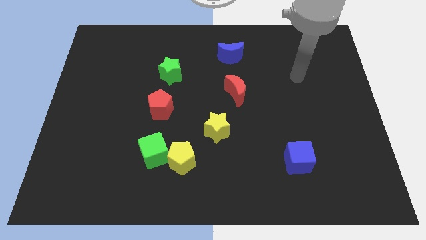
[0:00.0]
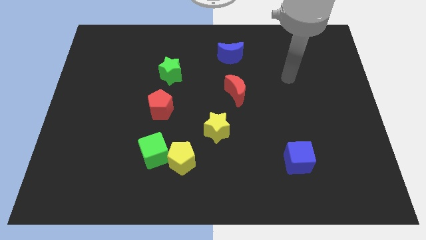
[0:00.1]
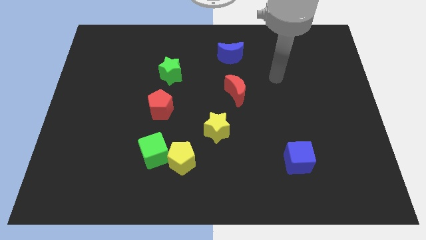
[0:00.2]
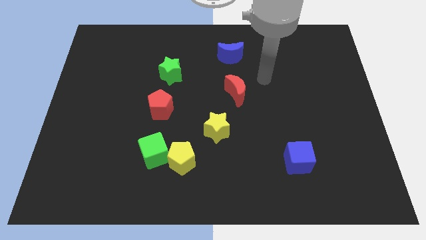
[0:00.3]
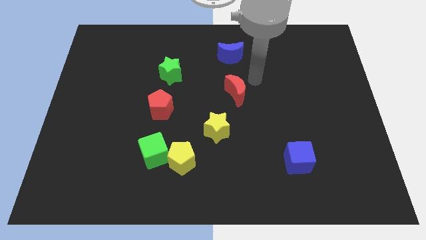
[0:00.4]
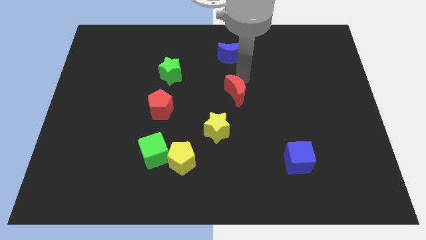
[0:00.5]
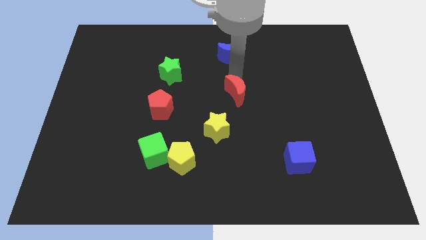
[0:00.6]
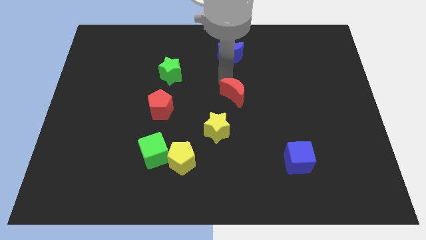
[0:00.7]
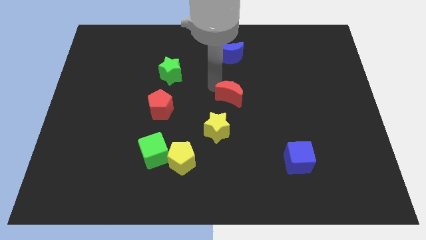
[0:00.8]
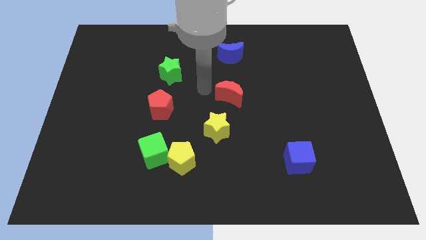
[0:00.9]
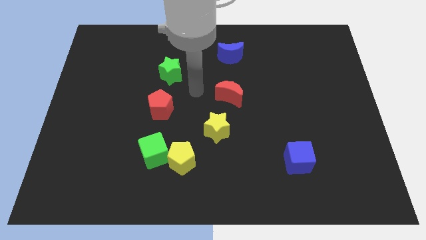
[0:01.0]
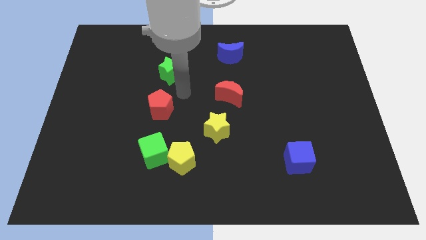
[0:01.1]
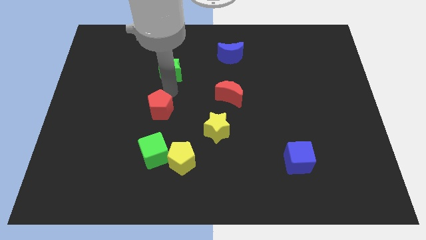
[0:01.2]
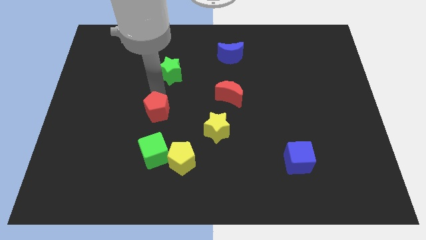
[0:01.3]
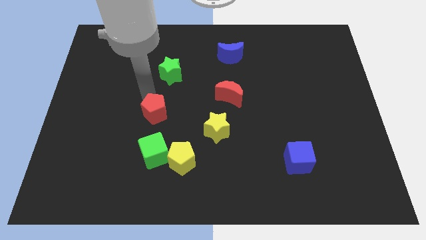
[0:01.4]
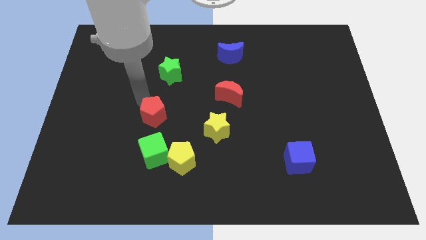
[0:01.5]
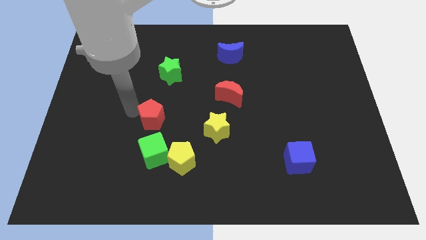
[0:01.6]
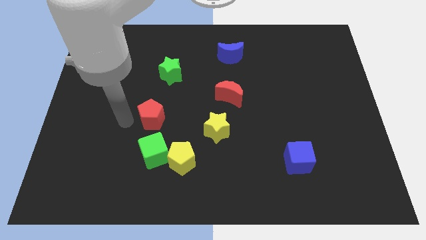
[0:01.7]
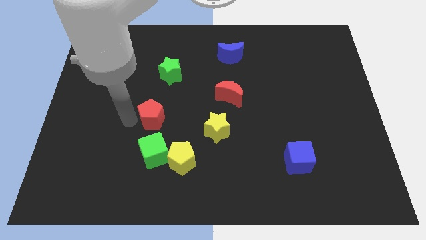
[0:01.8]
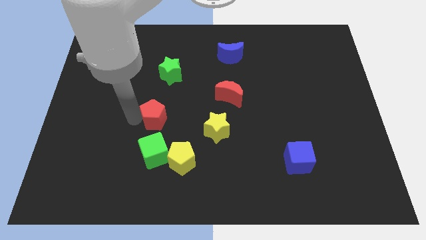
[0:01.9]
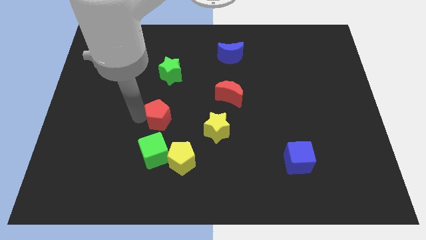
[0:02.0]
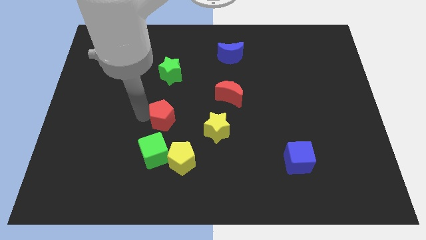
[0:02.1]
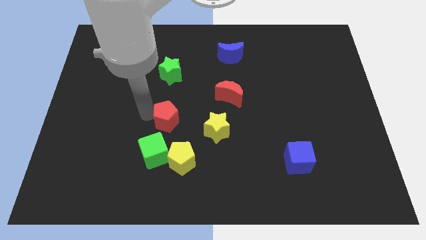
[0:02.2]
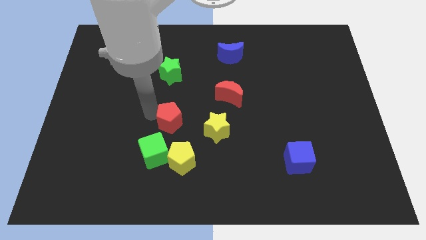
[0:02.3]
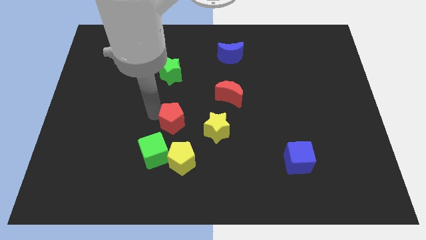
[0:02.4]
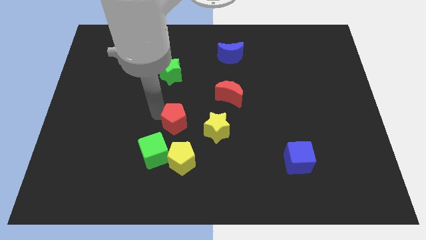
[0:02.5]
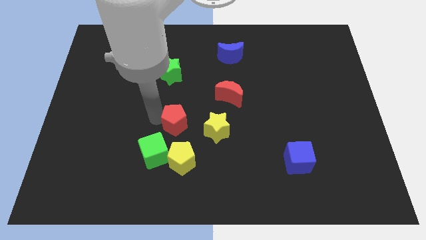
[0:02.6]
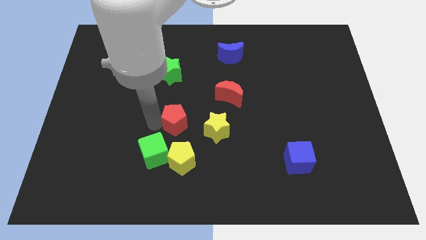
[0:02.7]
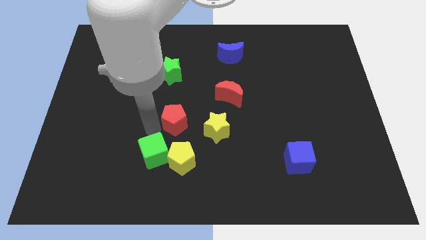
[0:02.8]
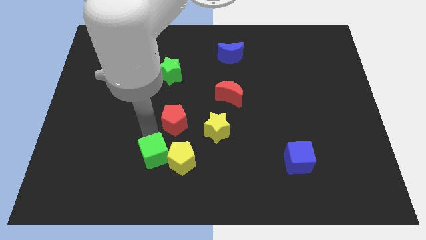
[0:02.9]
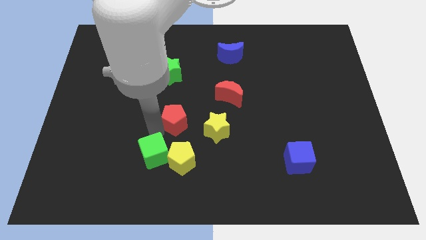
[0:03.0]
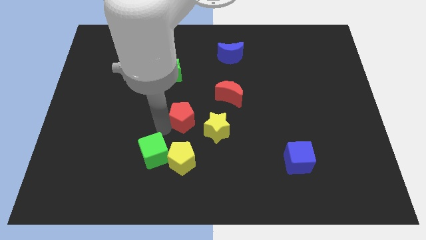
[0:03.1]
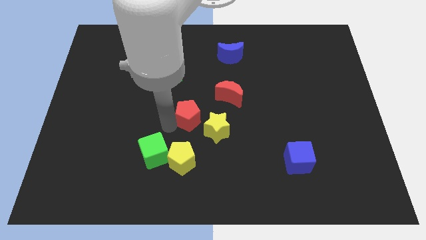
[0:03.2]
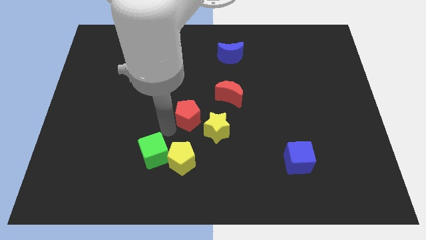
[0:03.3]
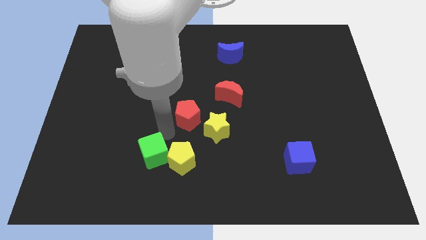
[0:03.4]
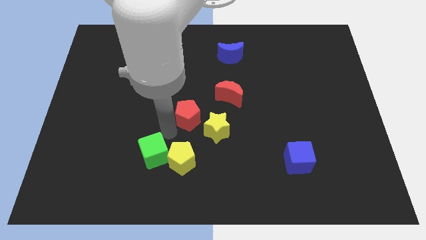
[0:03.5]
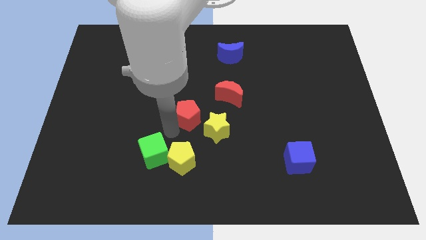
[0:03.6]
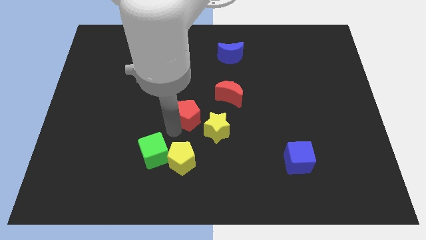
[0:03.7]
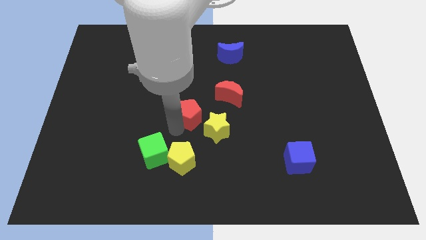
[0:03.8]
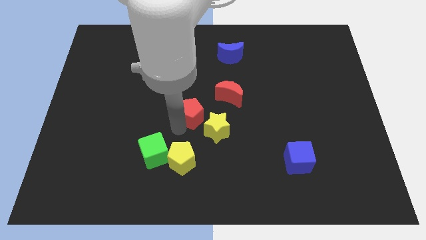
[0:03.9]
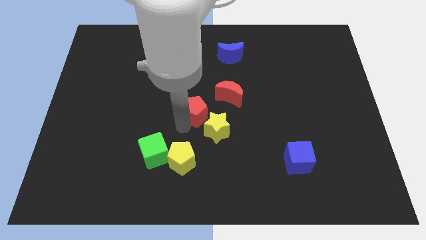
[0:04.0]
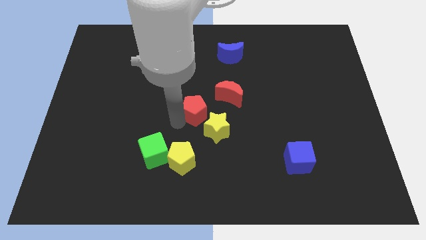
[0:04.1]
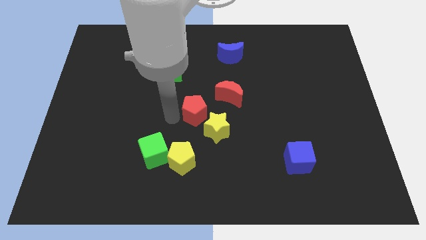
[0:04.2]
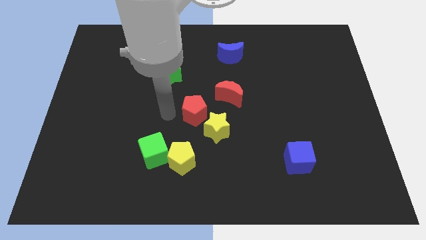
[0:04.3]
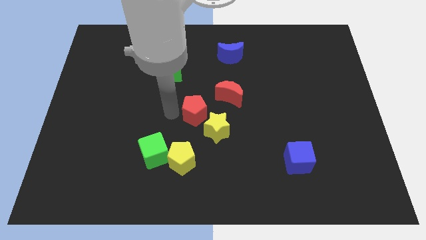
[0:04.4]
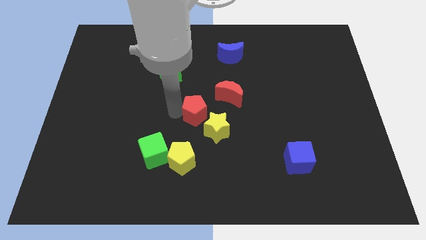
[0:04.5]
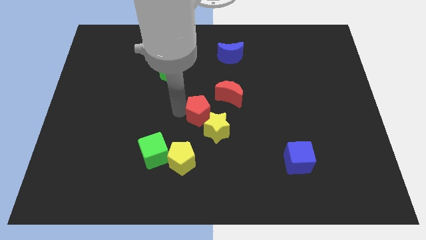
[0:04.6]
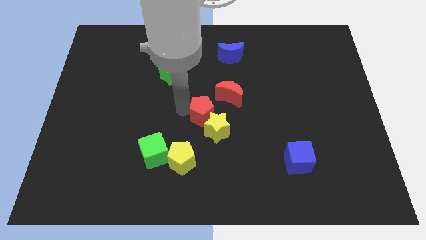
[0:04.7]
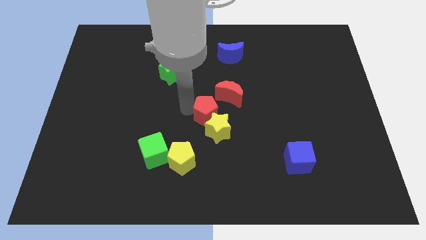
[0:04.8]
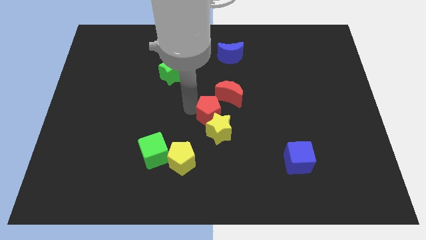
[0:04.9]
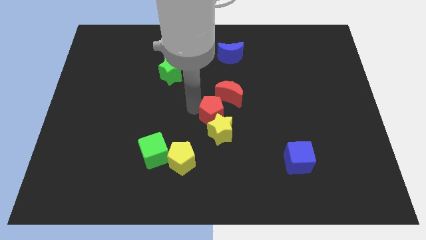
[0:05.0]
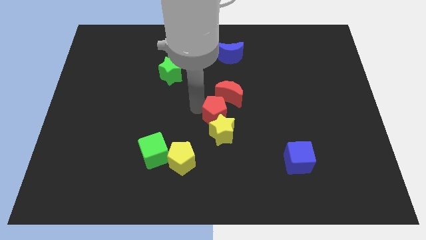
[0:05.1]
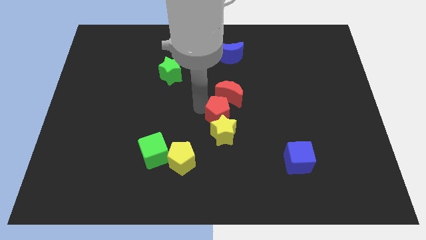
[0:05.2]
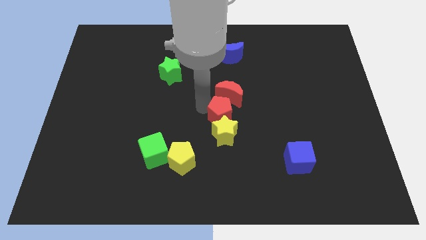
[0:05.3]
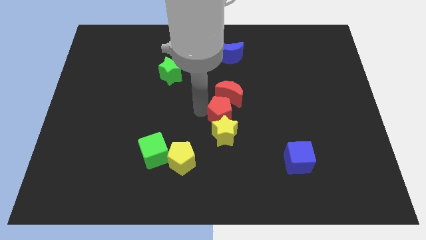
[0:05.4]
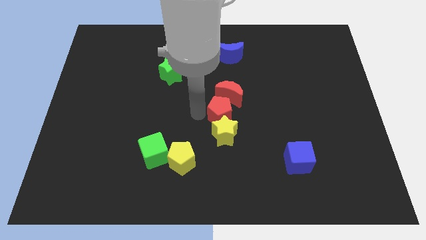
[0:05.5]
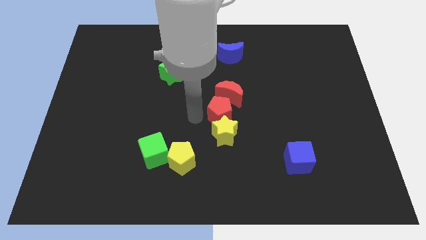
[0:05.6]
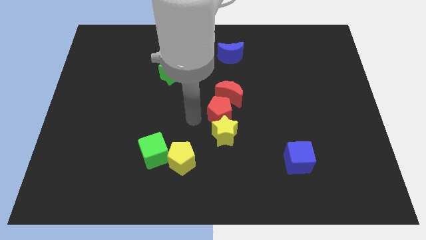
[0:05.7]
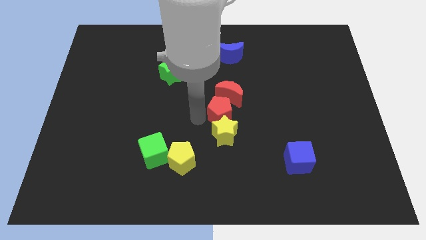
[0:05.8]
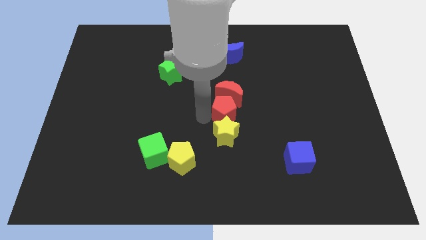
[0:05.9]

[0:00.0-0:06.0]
move the red pentagon to the bottom right of the red moon
